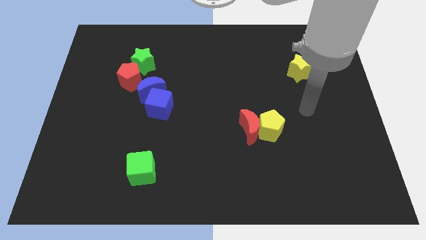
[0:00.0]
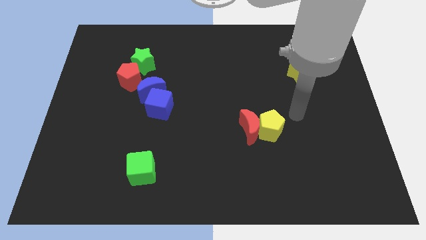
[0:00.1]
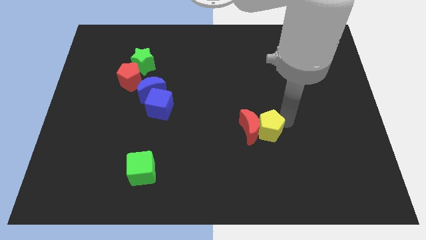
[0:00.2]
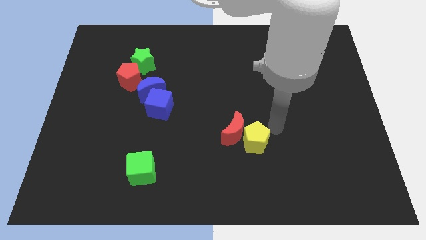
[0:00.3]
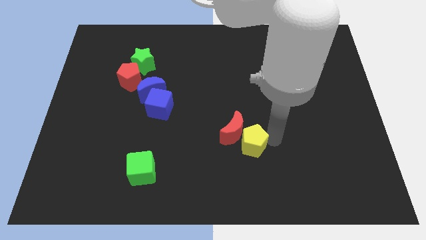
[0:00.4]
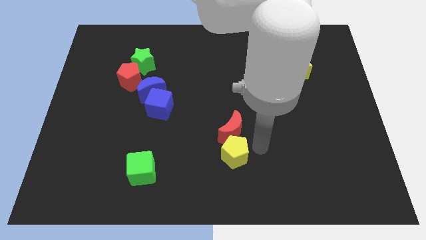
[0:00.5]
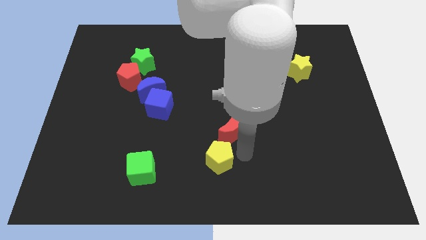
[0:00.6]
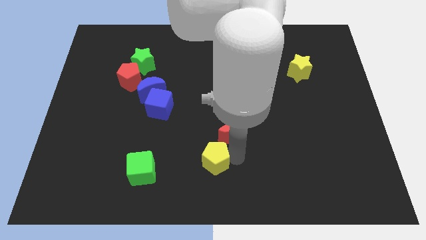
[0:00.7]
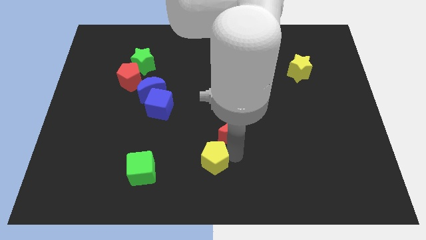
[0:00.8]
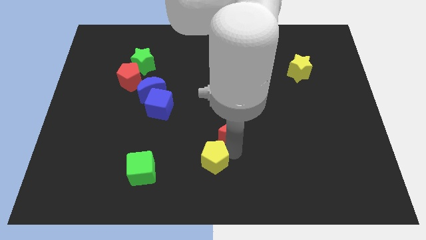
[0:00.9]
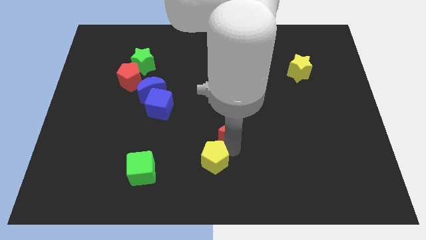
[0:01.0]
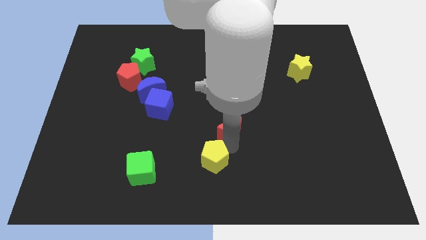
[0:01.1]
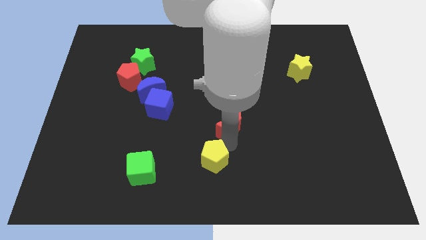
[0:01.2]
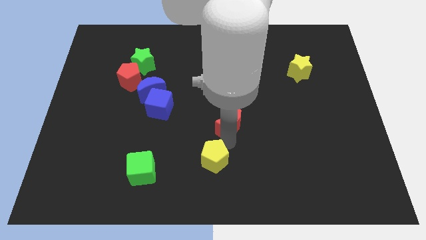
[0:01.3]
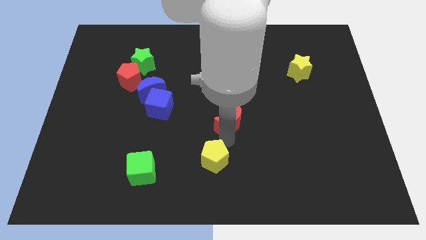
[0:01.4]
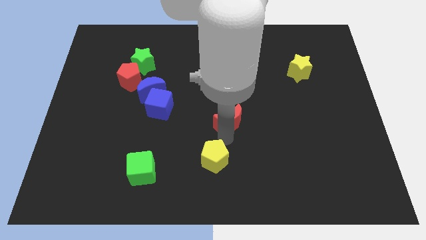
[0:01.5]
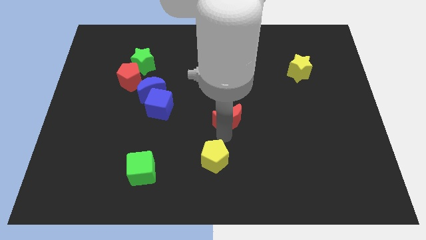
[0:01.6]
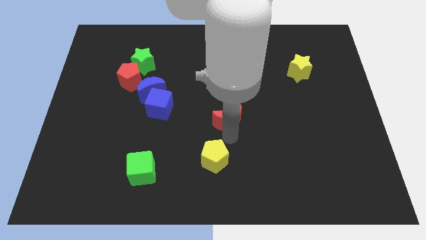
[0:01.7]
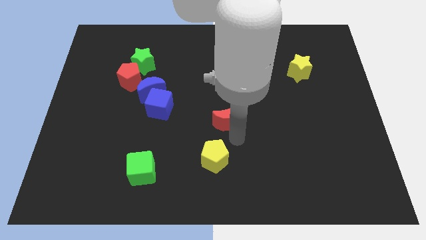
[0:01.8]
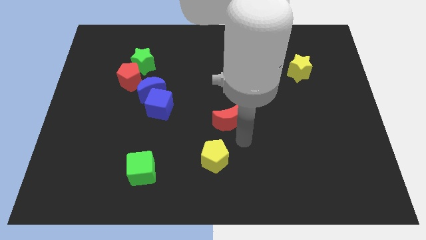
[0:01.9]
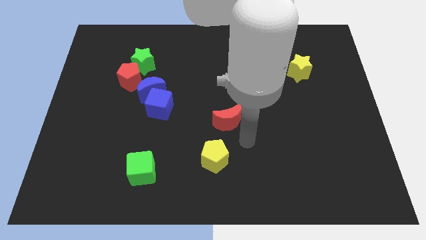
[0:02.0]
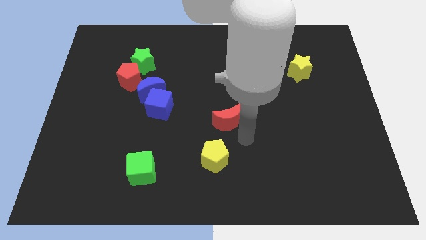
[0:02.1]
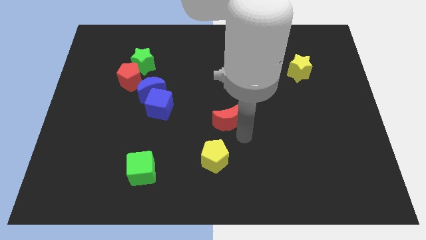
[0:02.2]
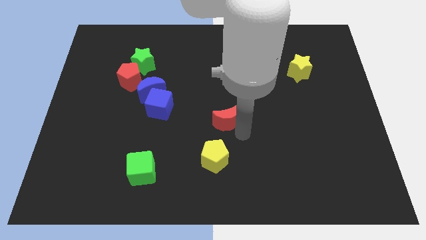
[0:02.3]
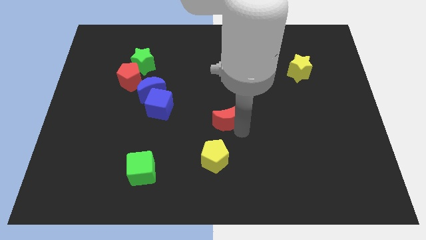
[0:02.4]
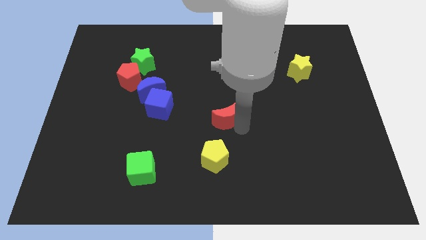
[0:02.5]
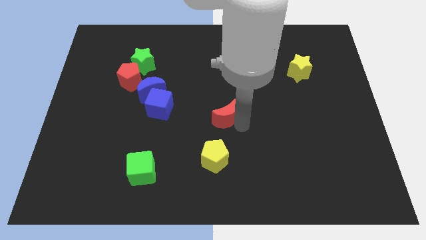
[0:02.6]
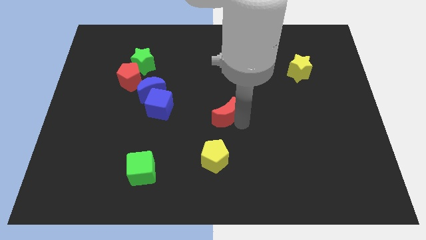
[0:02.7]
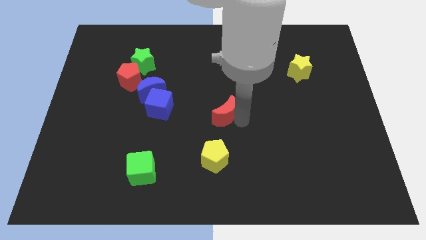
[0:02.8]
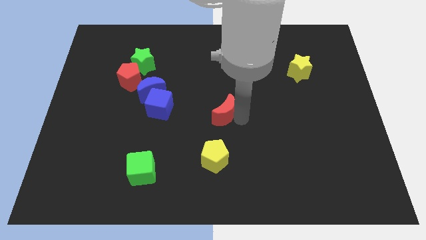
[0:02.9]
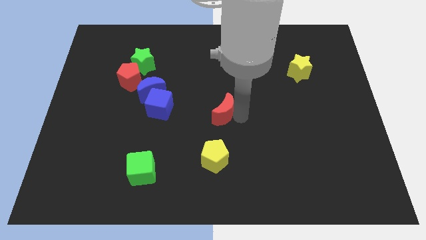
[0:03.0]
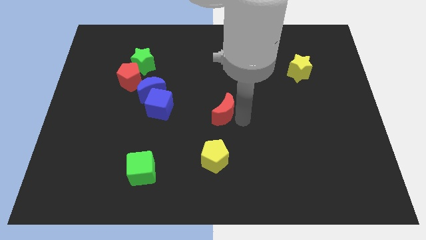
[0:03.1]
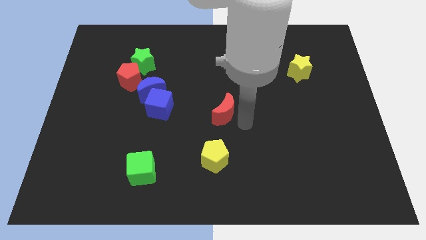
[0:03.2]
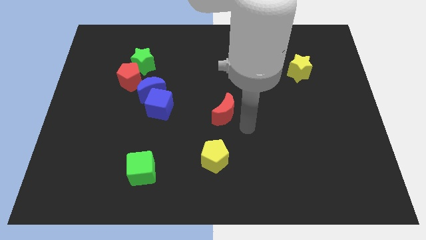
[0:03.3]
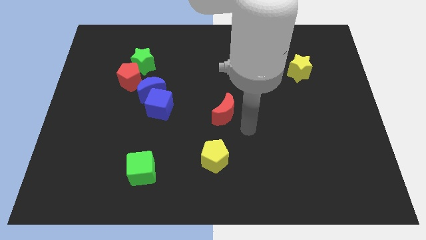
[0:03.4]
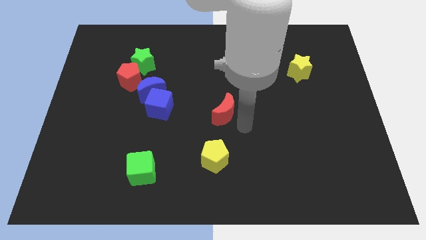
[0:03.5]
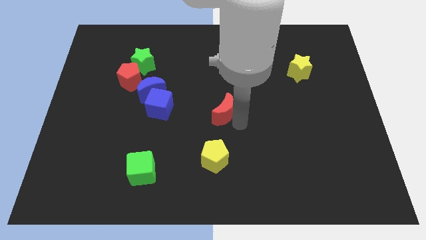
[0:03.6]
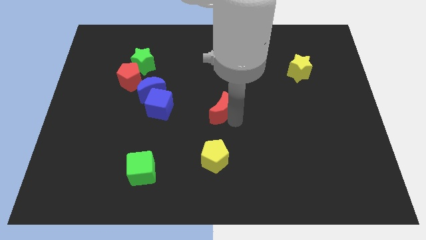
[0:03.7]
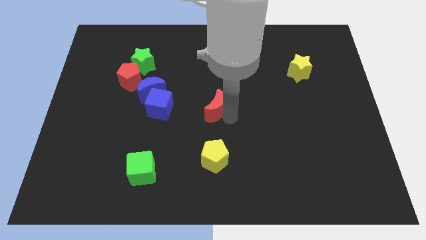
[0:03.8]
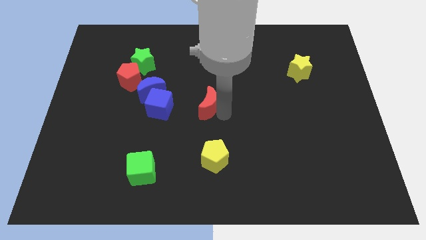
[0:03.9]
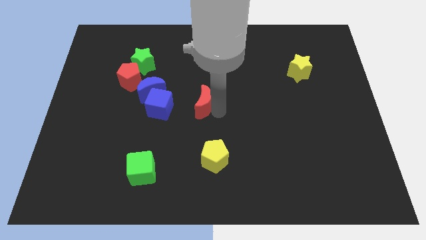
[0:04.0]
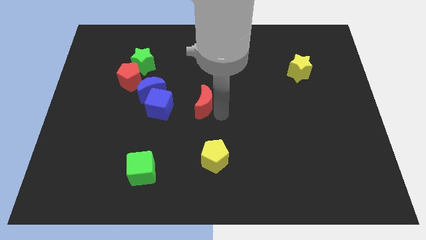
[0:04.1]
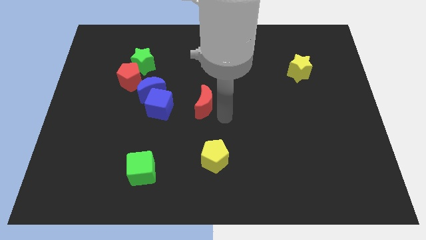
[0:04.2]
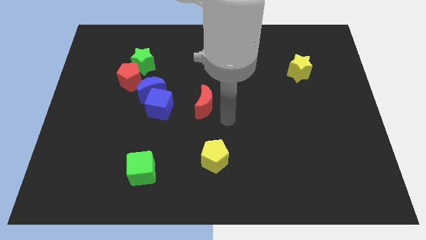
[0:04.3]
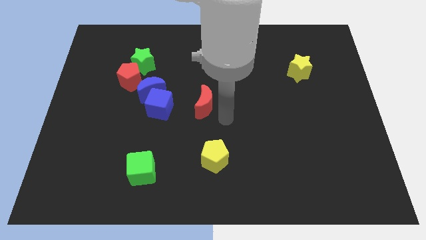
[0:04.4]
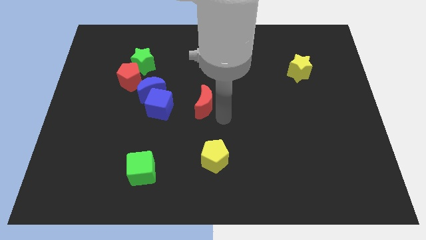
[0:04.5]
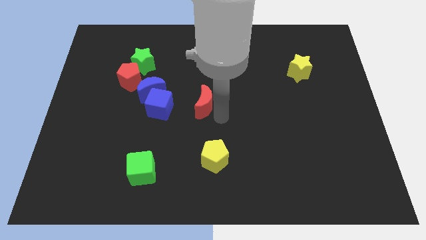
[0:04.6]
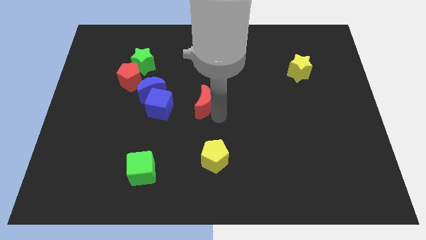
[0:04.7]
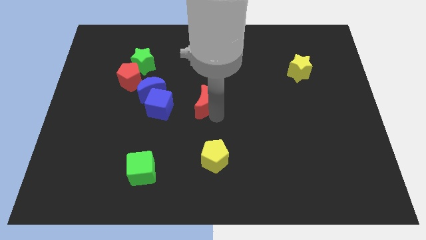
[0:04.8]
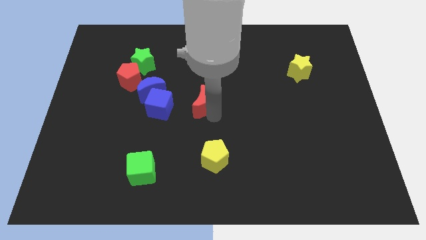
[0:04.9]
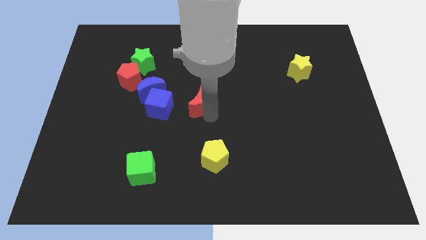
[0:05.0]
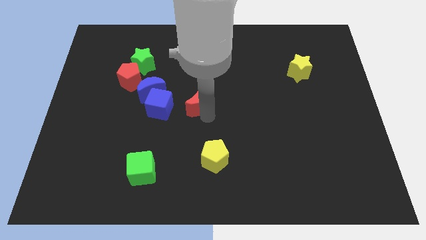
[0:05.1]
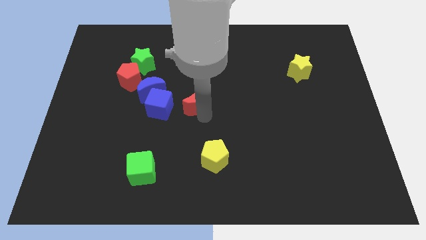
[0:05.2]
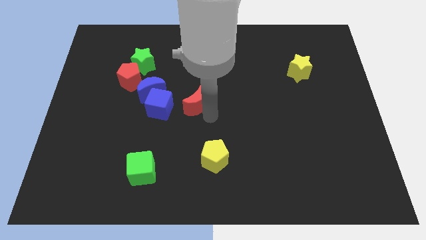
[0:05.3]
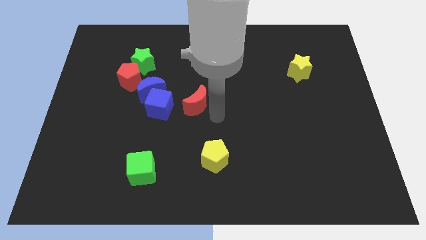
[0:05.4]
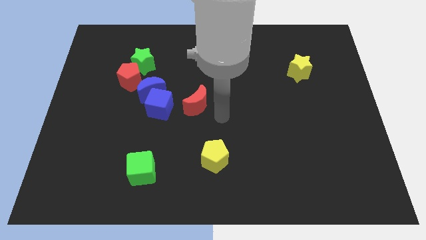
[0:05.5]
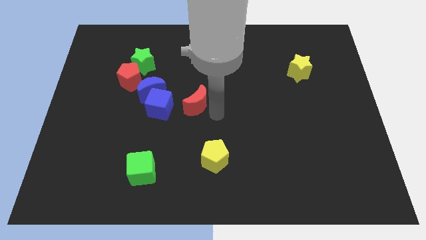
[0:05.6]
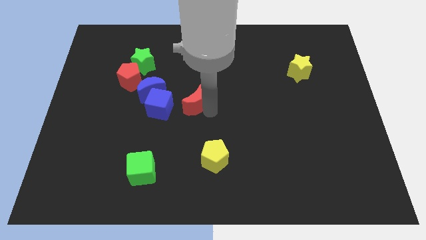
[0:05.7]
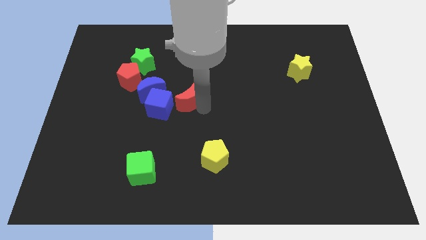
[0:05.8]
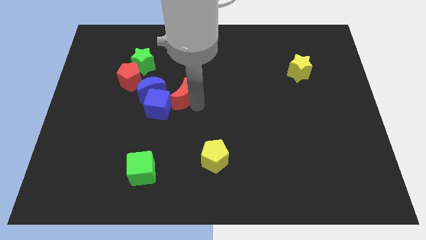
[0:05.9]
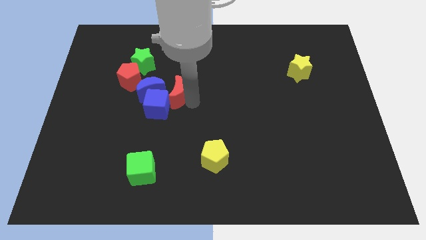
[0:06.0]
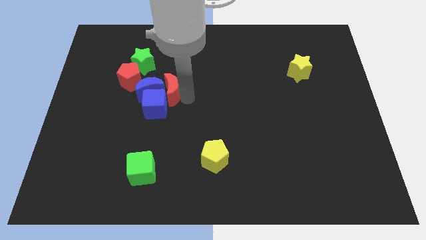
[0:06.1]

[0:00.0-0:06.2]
push the red moon towards the blue moon

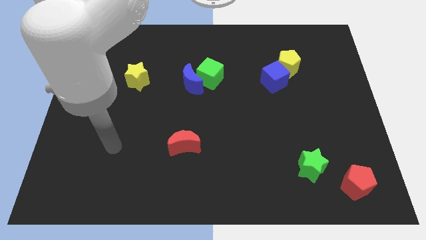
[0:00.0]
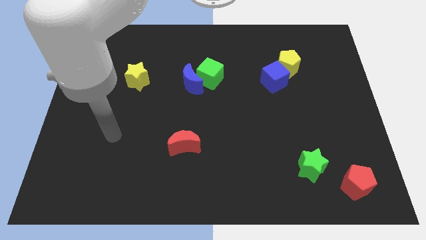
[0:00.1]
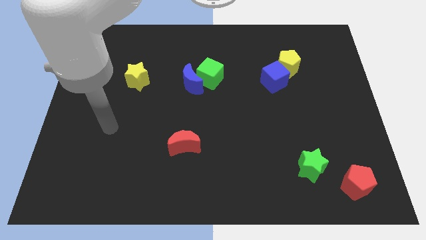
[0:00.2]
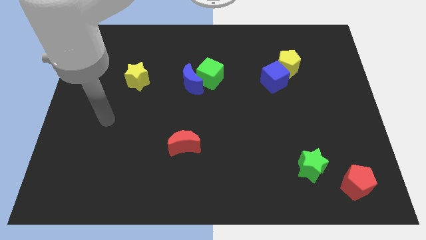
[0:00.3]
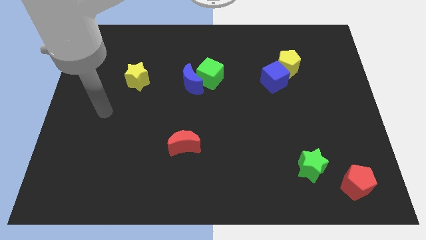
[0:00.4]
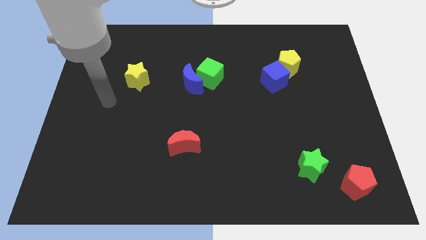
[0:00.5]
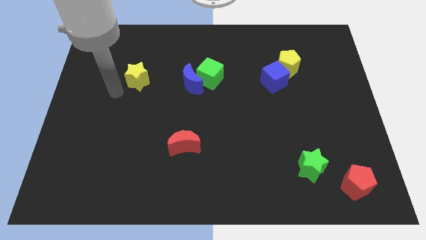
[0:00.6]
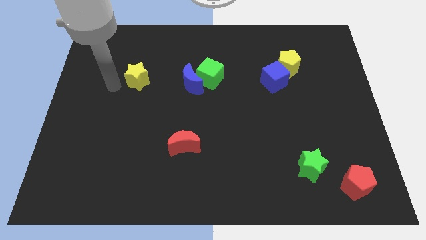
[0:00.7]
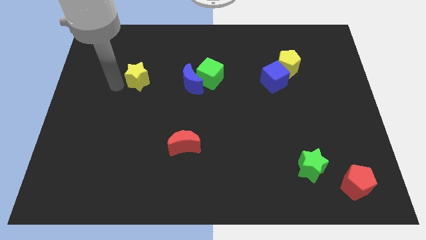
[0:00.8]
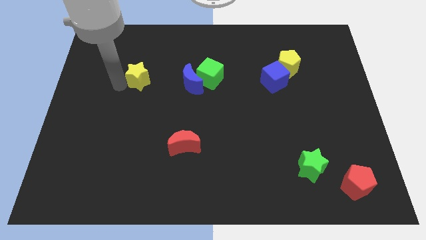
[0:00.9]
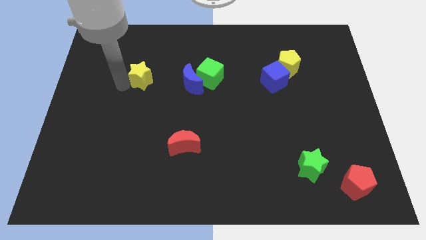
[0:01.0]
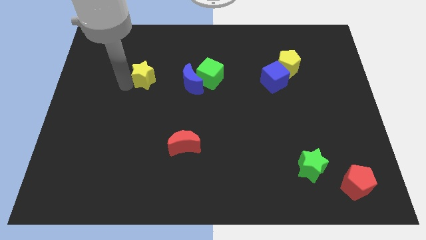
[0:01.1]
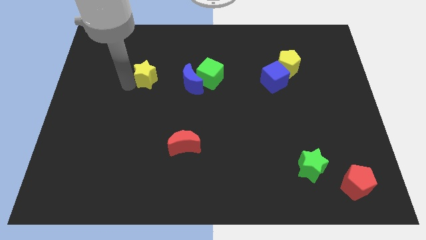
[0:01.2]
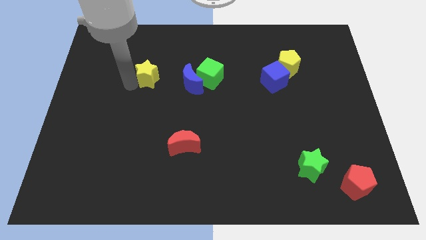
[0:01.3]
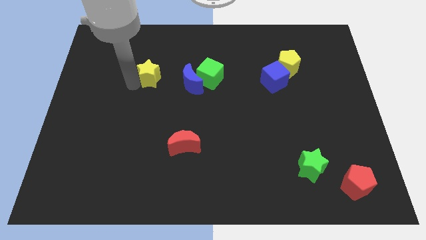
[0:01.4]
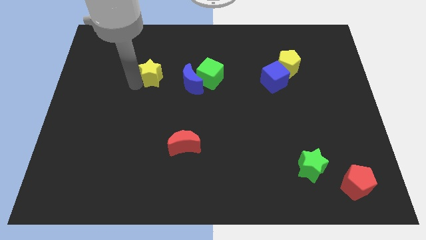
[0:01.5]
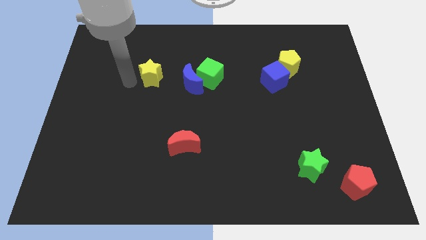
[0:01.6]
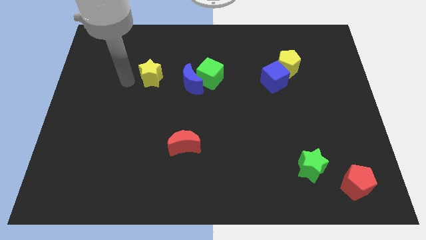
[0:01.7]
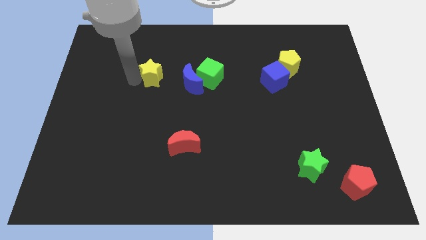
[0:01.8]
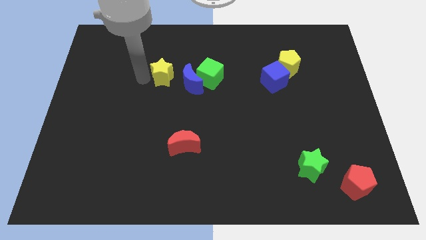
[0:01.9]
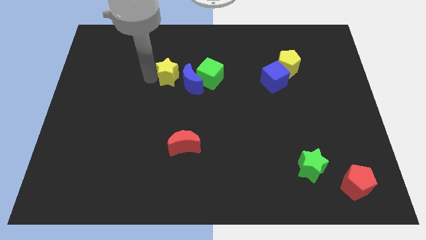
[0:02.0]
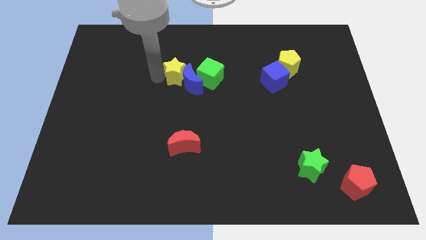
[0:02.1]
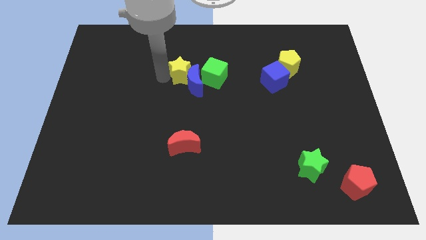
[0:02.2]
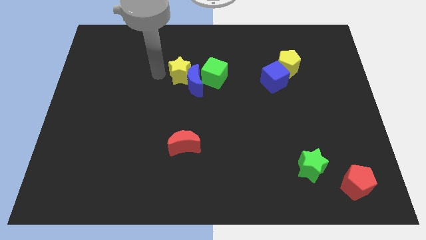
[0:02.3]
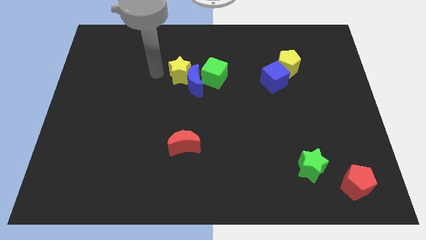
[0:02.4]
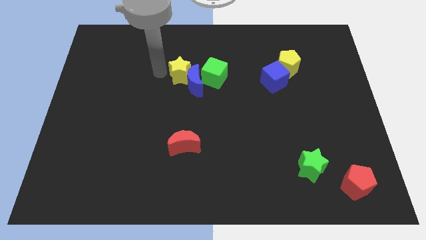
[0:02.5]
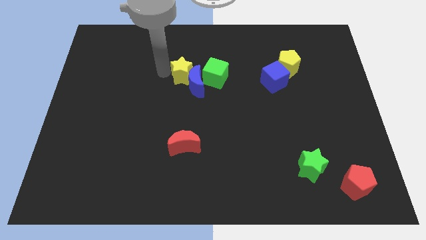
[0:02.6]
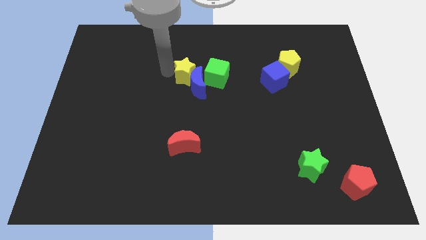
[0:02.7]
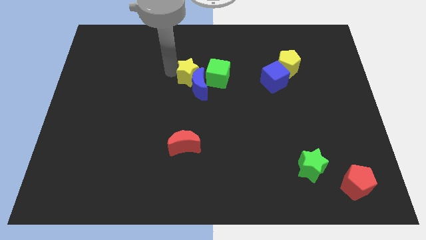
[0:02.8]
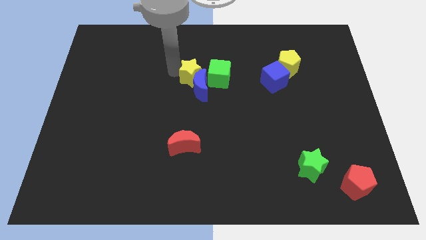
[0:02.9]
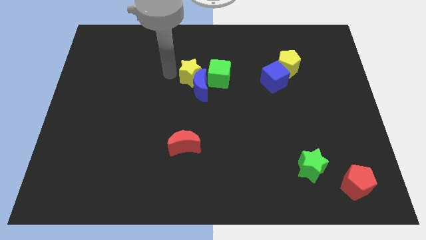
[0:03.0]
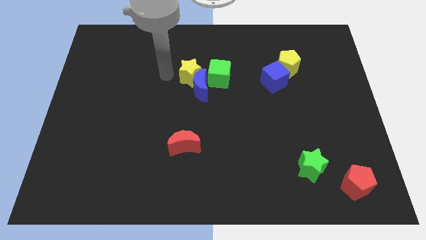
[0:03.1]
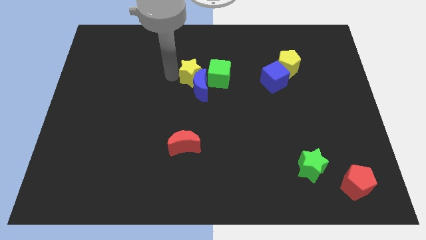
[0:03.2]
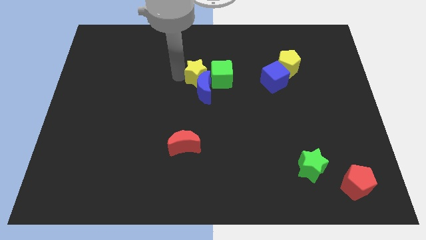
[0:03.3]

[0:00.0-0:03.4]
push the yellow star close to the green cube
